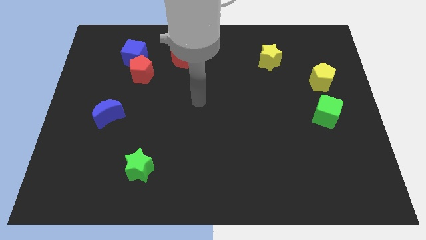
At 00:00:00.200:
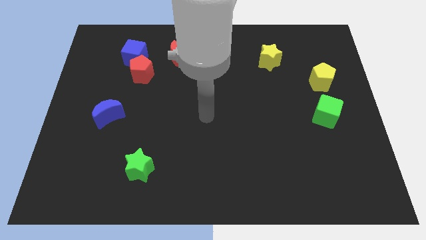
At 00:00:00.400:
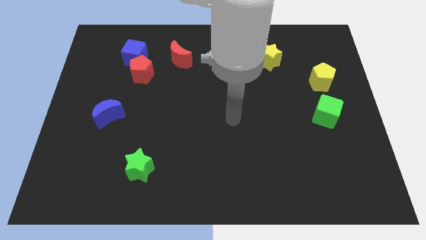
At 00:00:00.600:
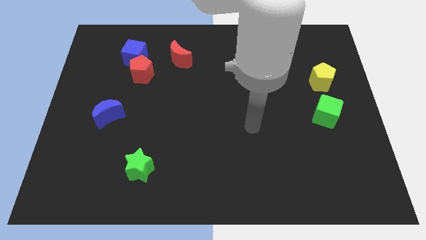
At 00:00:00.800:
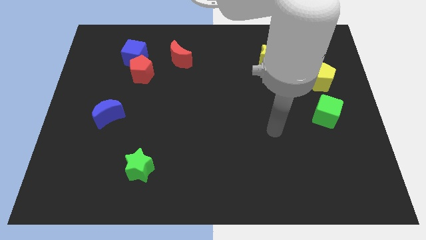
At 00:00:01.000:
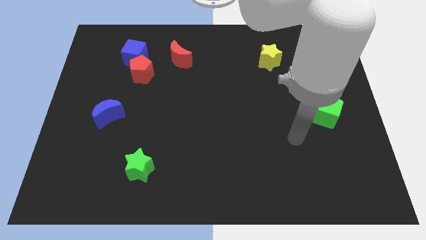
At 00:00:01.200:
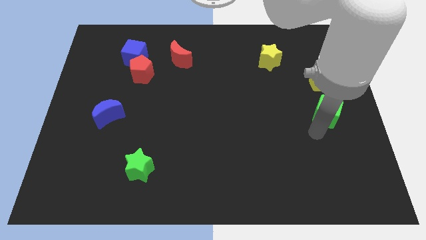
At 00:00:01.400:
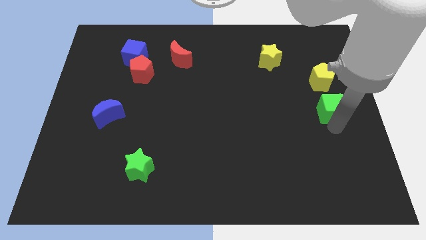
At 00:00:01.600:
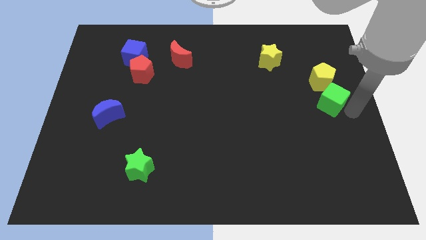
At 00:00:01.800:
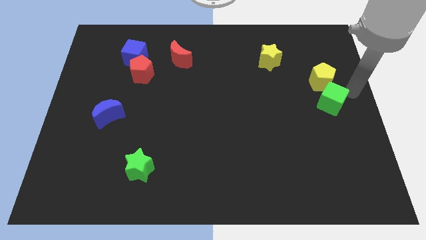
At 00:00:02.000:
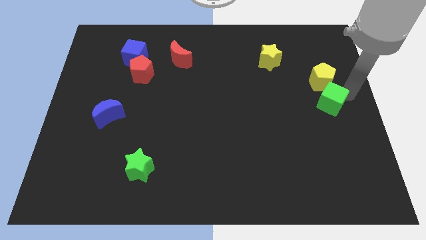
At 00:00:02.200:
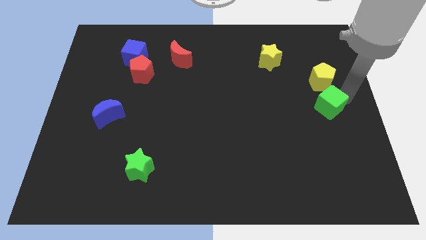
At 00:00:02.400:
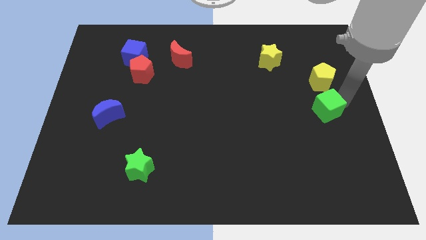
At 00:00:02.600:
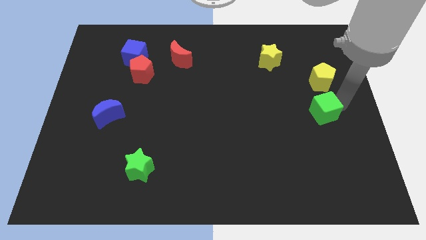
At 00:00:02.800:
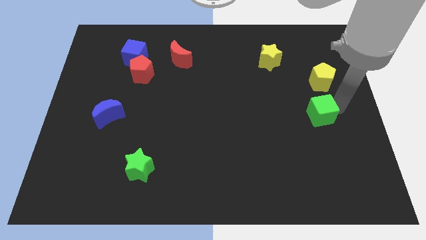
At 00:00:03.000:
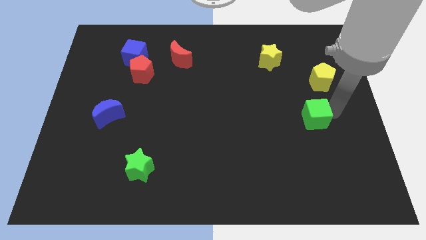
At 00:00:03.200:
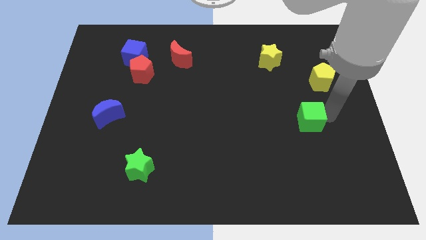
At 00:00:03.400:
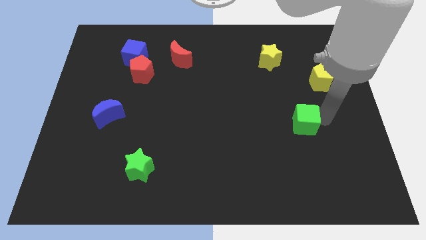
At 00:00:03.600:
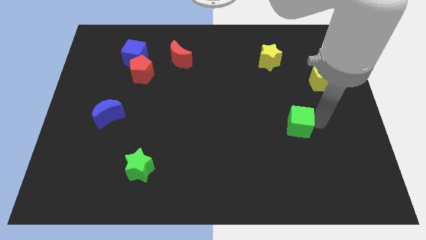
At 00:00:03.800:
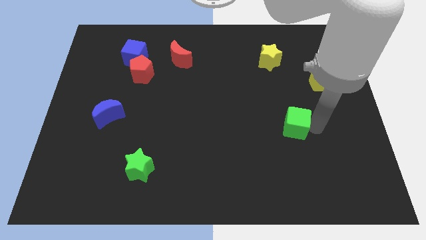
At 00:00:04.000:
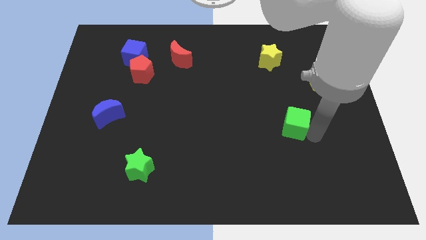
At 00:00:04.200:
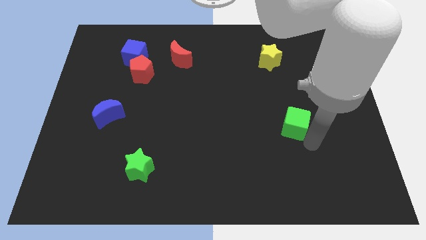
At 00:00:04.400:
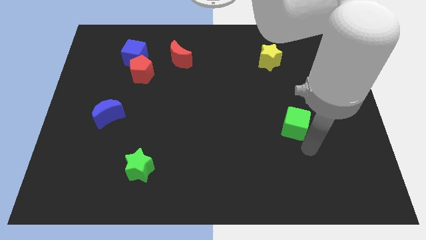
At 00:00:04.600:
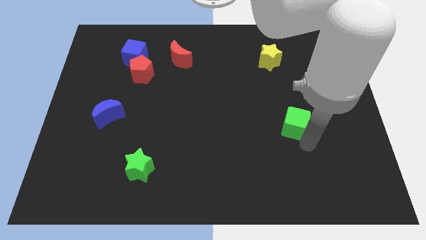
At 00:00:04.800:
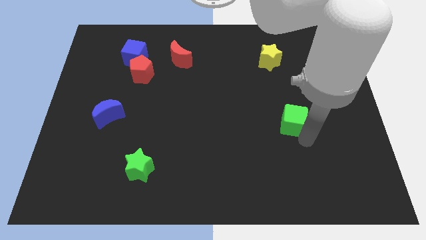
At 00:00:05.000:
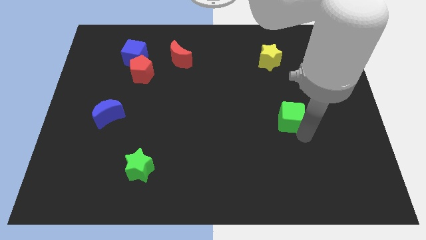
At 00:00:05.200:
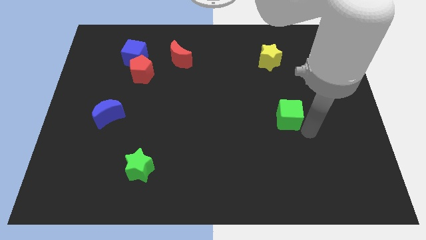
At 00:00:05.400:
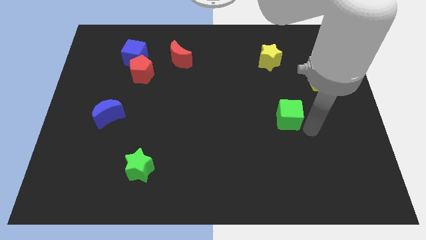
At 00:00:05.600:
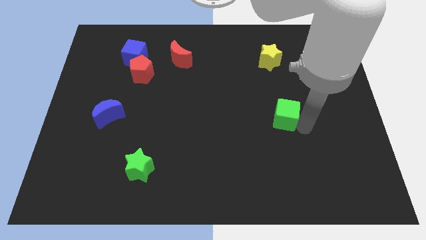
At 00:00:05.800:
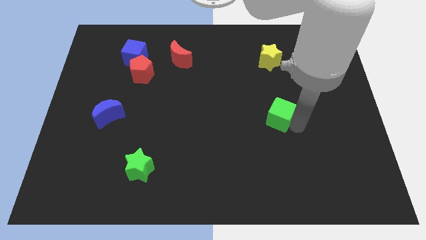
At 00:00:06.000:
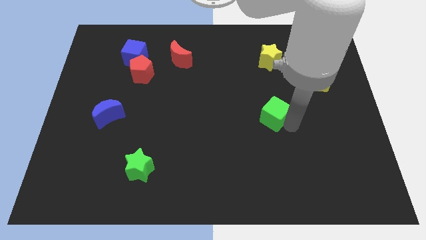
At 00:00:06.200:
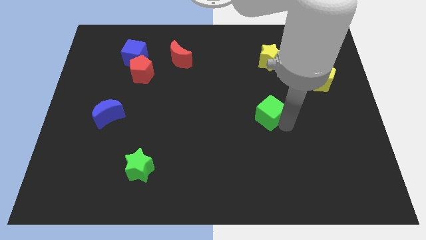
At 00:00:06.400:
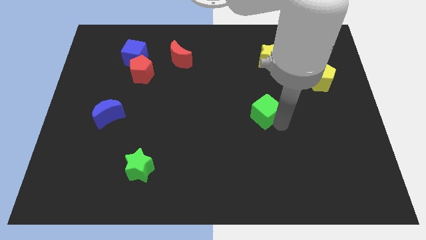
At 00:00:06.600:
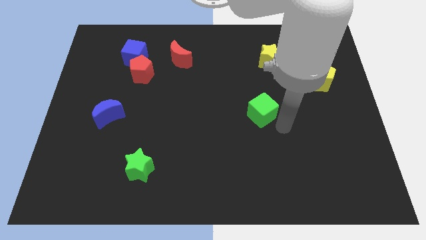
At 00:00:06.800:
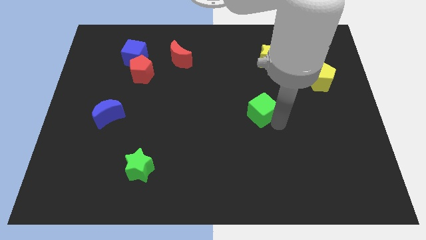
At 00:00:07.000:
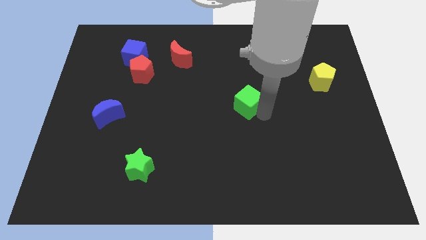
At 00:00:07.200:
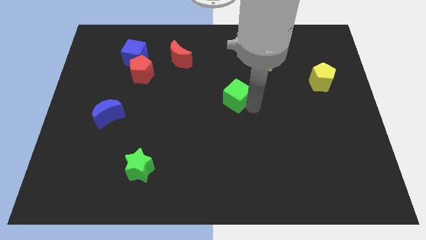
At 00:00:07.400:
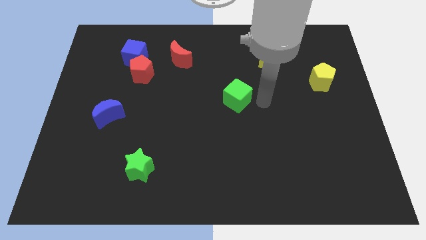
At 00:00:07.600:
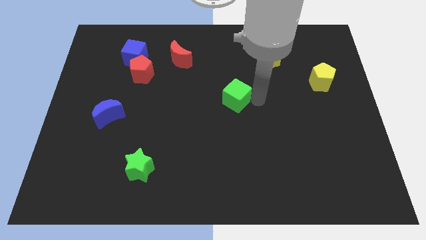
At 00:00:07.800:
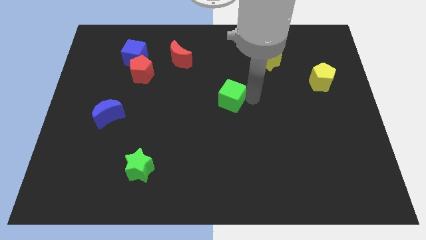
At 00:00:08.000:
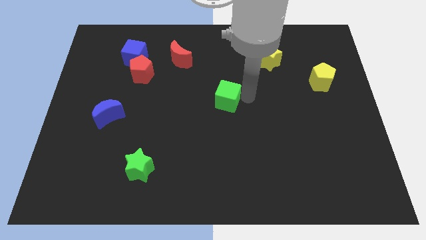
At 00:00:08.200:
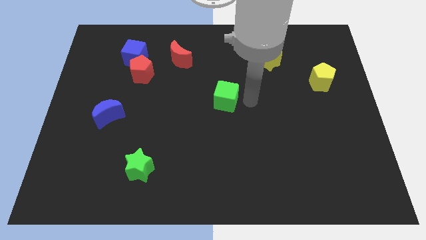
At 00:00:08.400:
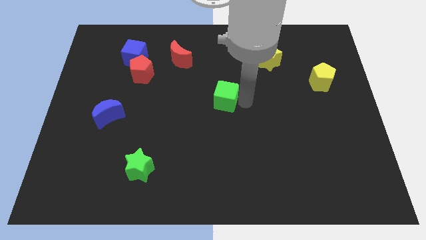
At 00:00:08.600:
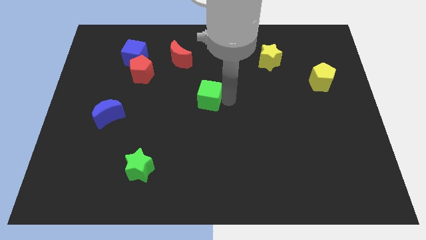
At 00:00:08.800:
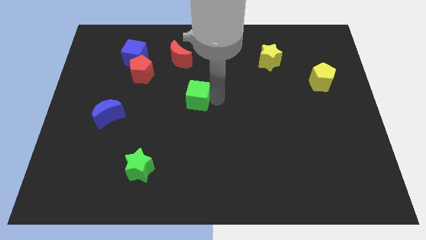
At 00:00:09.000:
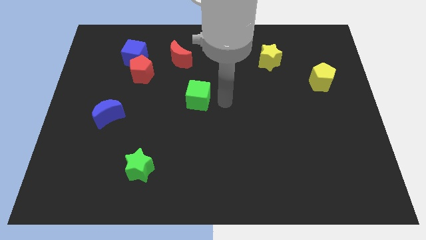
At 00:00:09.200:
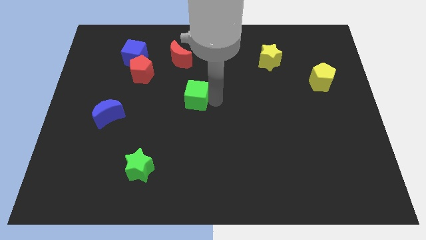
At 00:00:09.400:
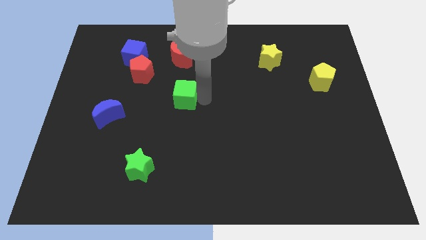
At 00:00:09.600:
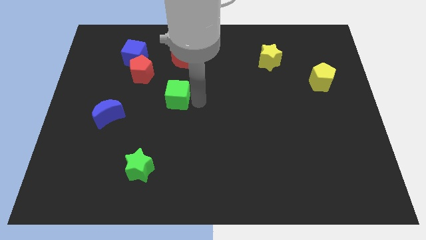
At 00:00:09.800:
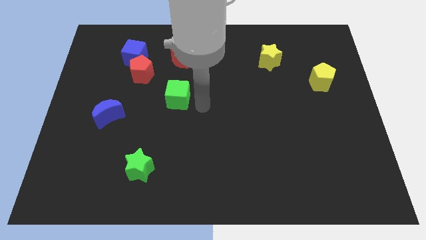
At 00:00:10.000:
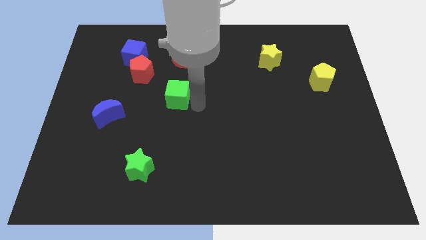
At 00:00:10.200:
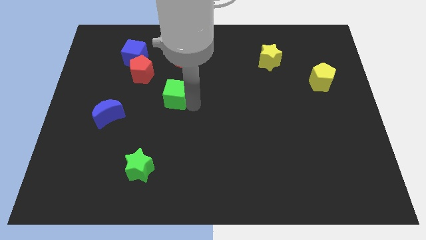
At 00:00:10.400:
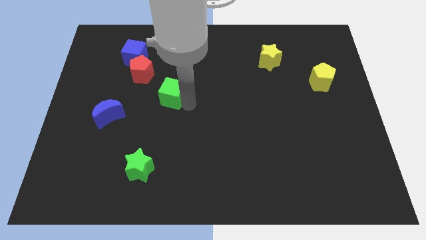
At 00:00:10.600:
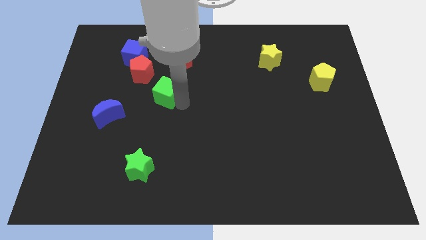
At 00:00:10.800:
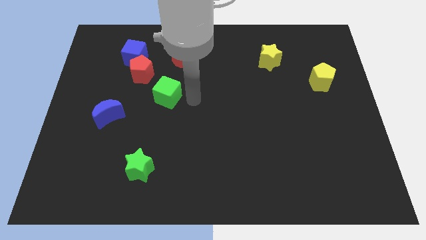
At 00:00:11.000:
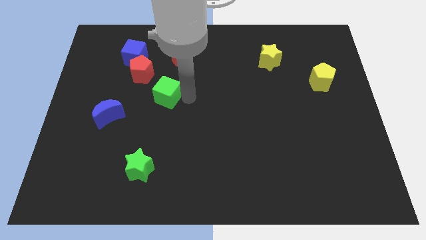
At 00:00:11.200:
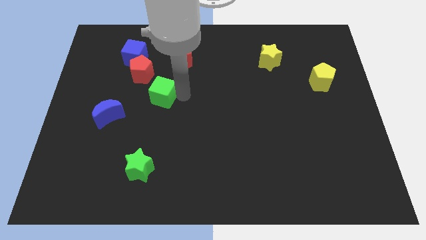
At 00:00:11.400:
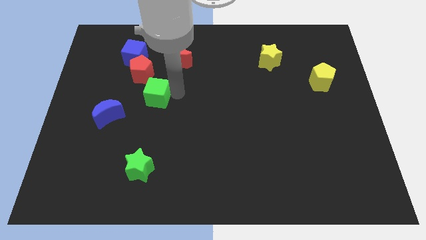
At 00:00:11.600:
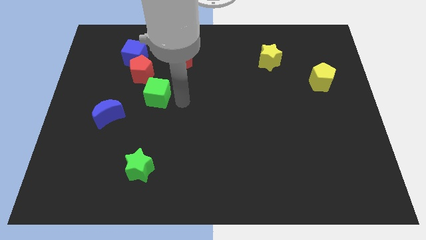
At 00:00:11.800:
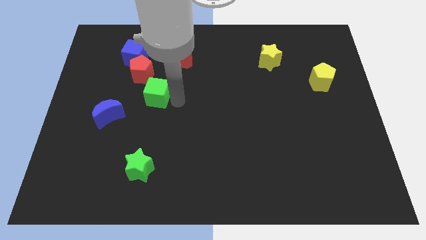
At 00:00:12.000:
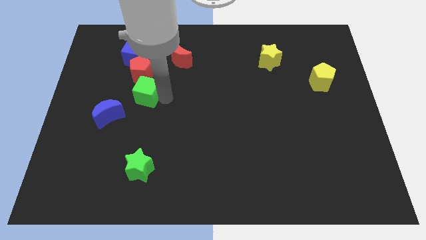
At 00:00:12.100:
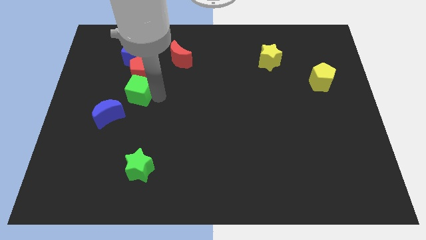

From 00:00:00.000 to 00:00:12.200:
put the green cube to the bottom left of the red pentagon

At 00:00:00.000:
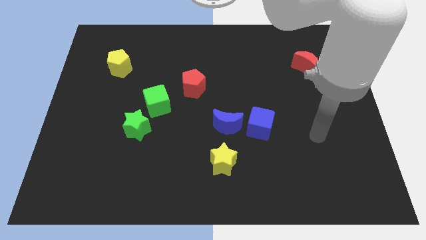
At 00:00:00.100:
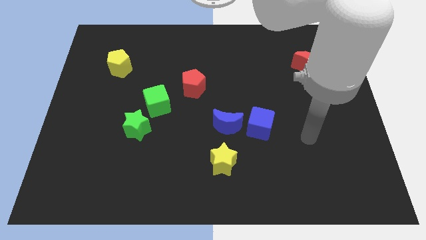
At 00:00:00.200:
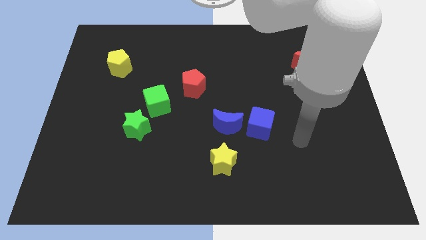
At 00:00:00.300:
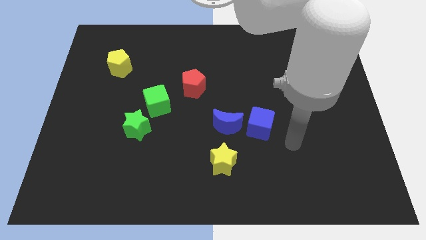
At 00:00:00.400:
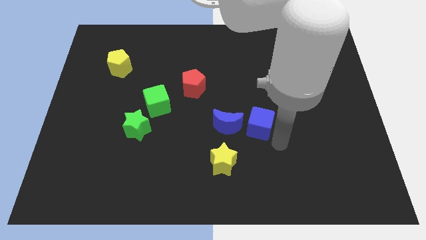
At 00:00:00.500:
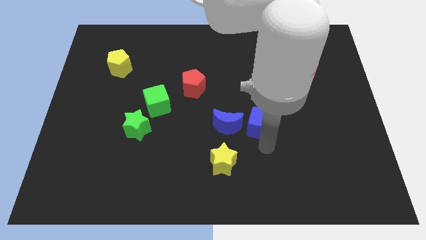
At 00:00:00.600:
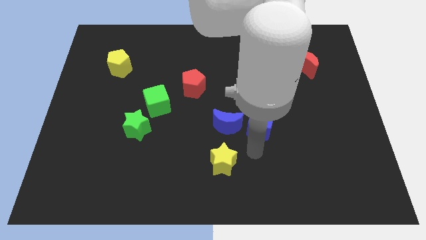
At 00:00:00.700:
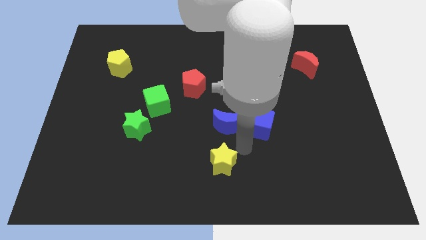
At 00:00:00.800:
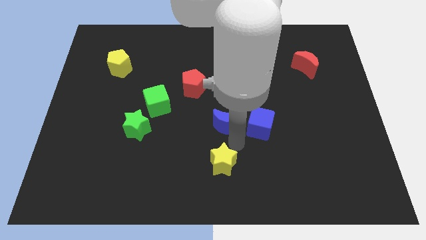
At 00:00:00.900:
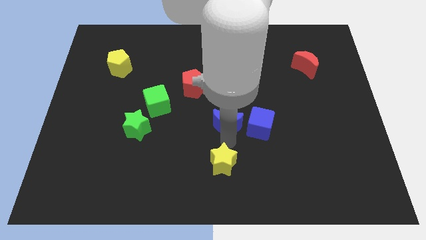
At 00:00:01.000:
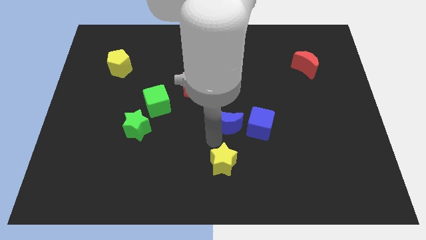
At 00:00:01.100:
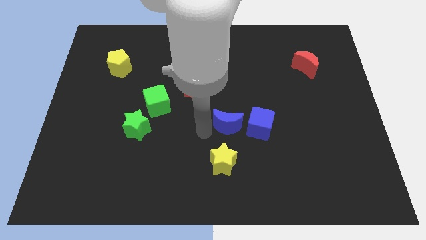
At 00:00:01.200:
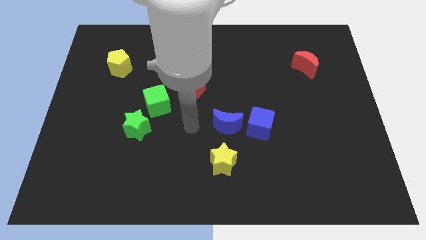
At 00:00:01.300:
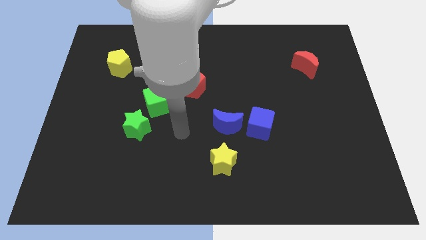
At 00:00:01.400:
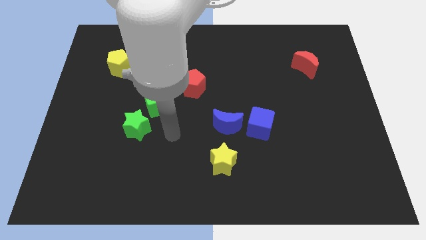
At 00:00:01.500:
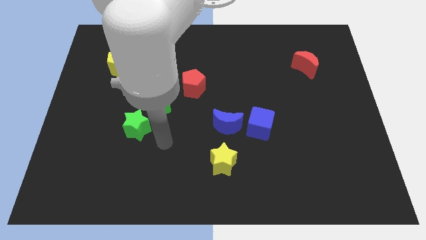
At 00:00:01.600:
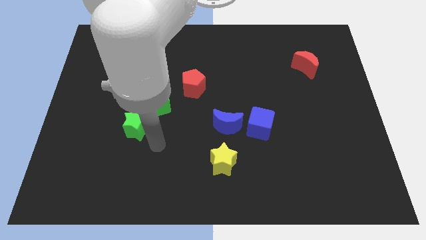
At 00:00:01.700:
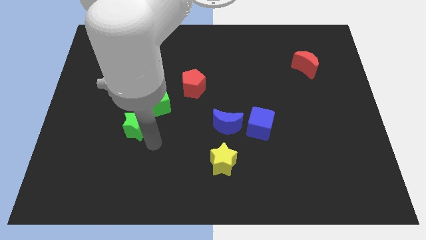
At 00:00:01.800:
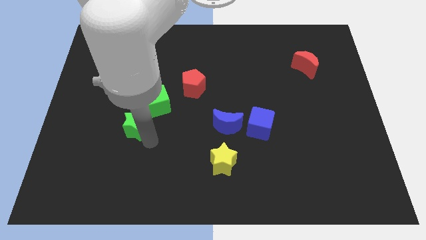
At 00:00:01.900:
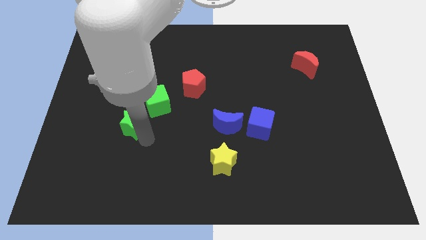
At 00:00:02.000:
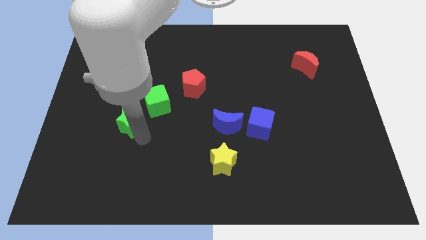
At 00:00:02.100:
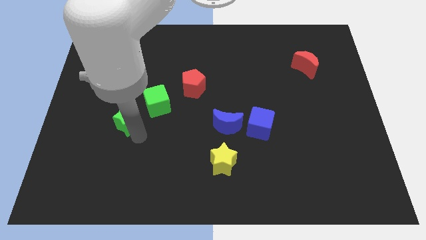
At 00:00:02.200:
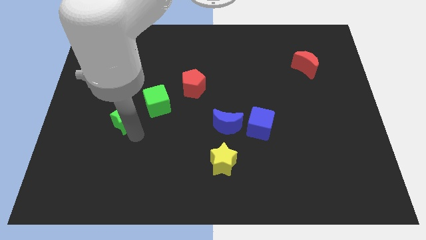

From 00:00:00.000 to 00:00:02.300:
push the green star left of the green cube
